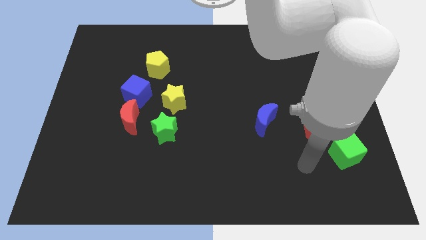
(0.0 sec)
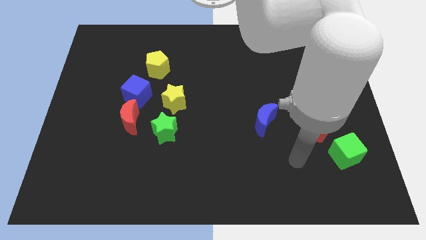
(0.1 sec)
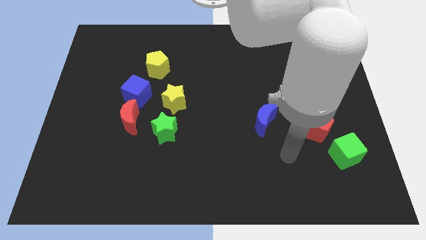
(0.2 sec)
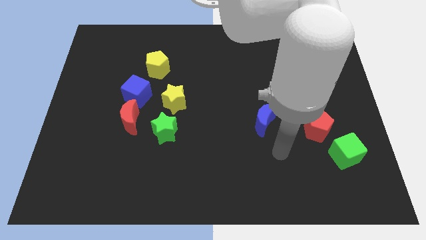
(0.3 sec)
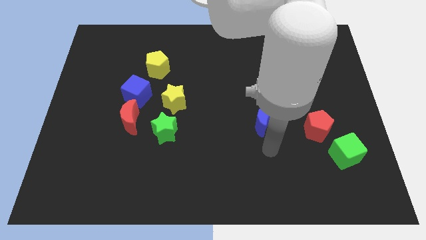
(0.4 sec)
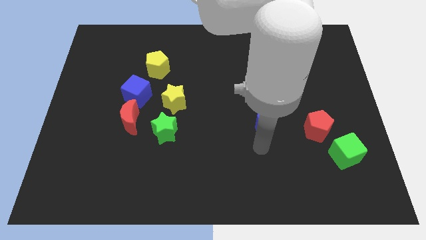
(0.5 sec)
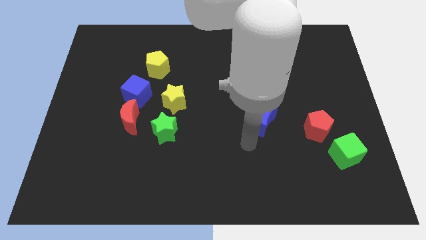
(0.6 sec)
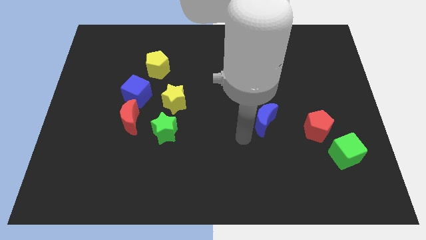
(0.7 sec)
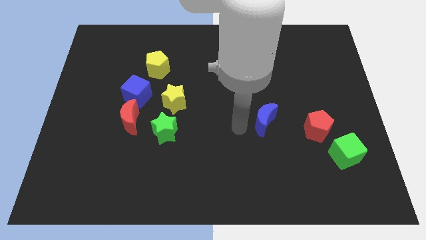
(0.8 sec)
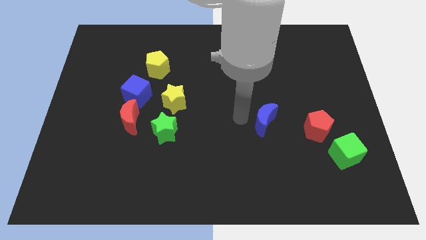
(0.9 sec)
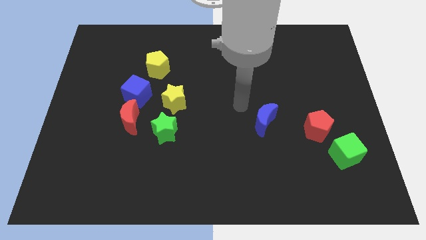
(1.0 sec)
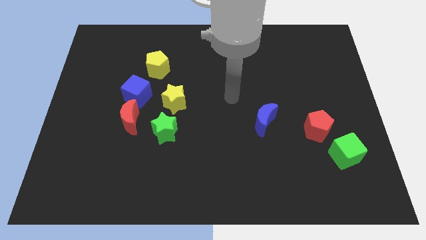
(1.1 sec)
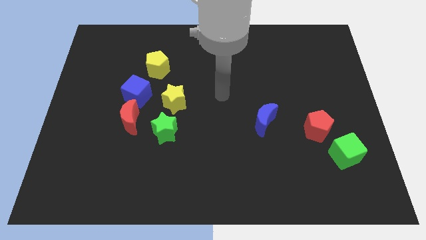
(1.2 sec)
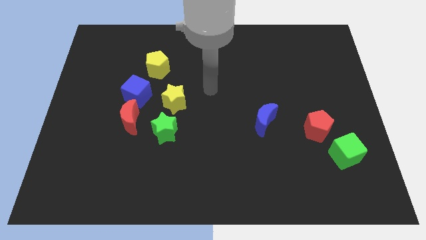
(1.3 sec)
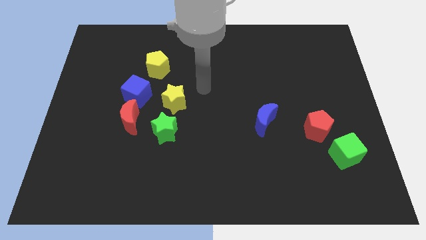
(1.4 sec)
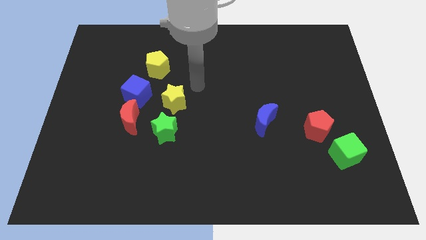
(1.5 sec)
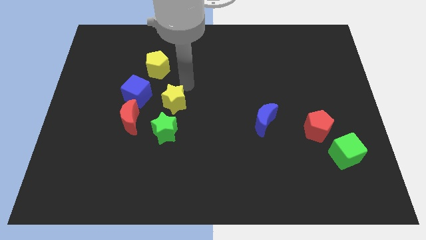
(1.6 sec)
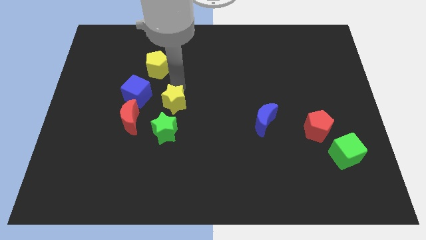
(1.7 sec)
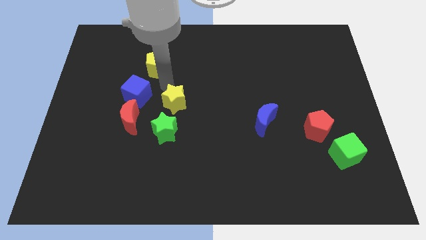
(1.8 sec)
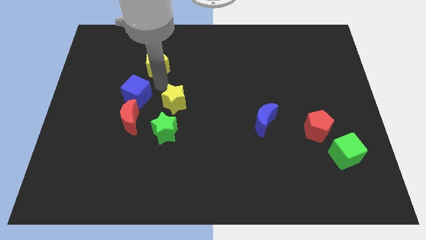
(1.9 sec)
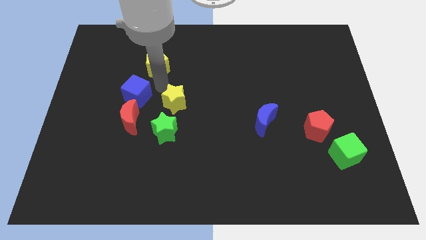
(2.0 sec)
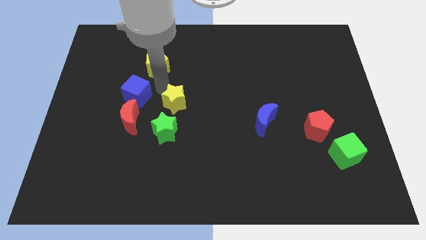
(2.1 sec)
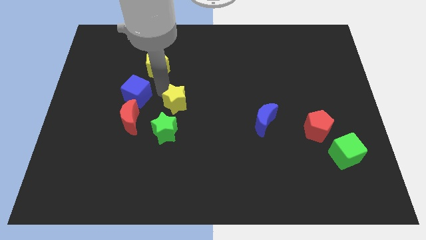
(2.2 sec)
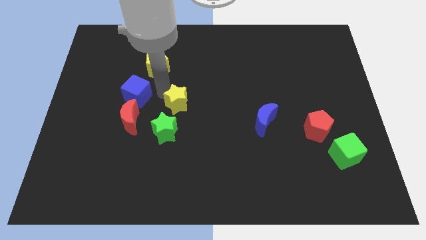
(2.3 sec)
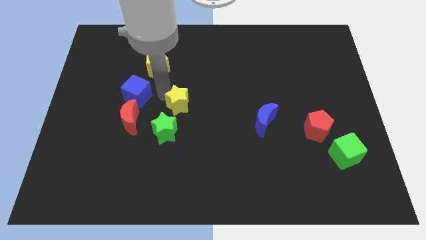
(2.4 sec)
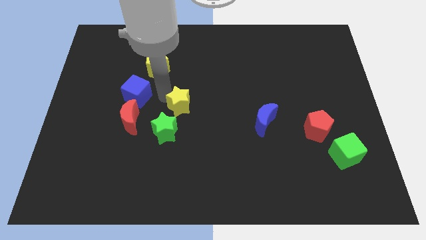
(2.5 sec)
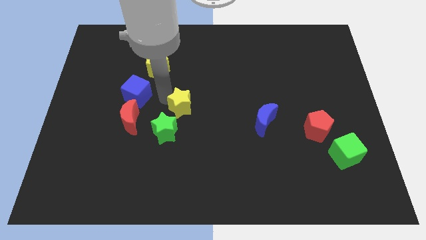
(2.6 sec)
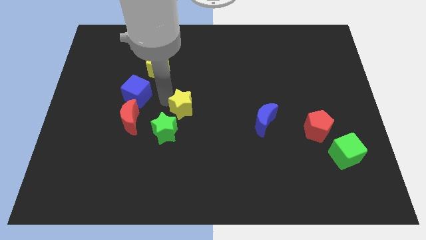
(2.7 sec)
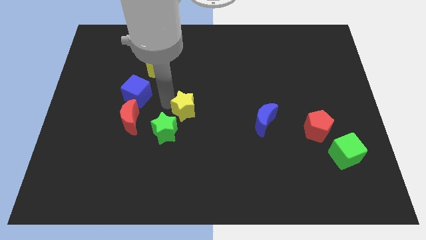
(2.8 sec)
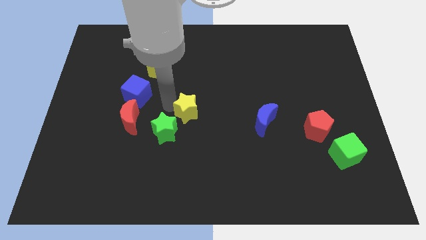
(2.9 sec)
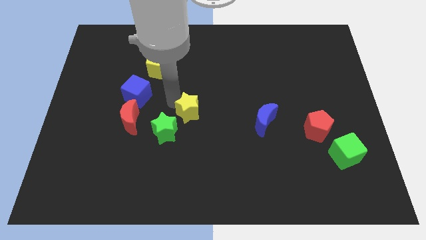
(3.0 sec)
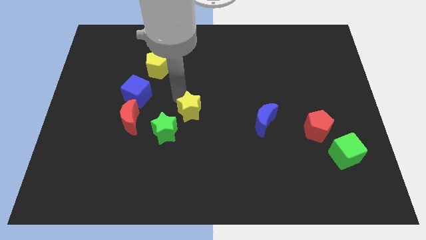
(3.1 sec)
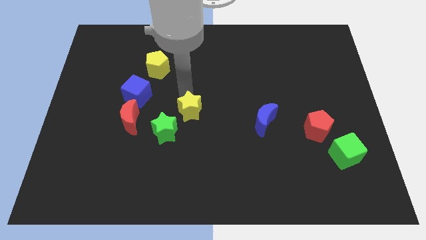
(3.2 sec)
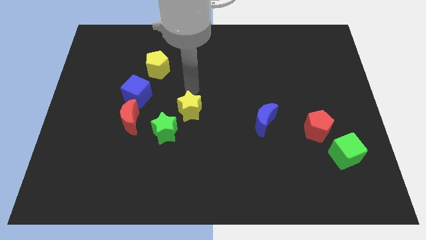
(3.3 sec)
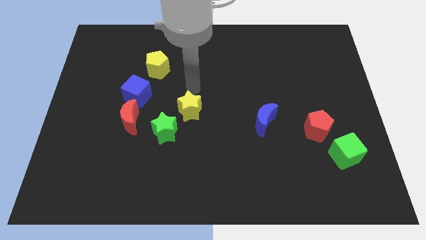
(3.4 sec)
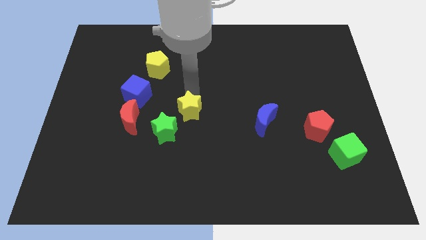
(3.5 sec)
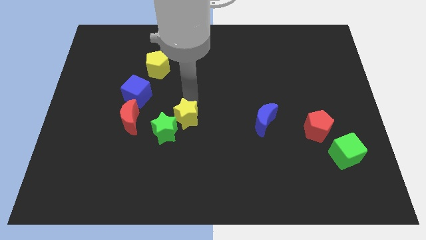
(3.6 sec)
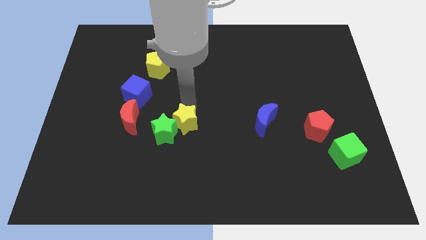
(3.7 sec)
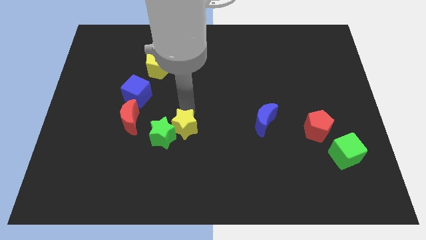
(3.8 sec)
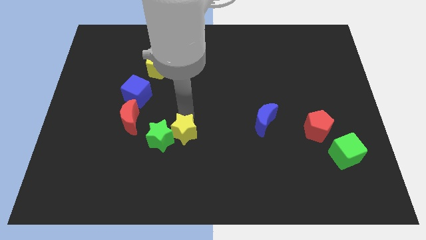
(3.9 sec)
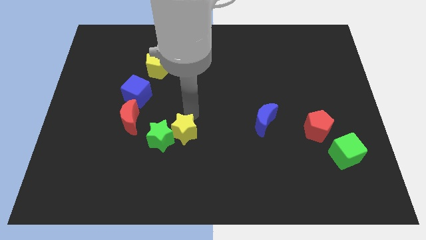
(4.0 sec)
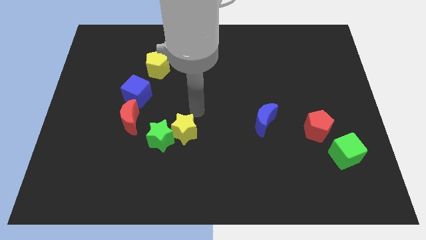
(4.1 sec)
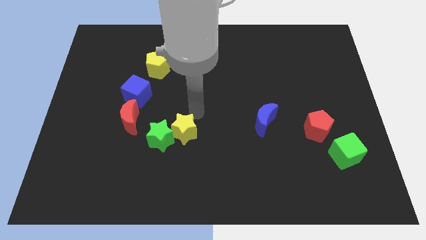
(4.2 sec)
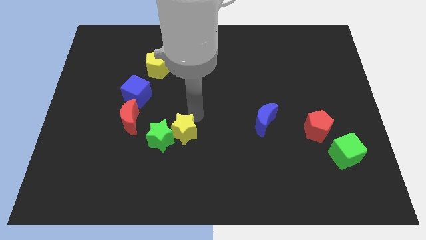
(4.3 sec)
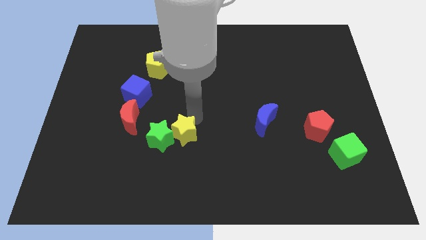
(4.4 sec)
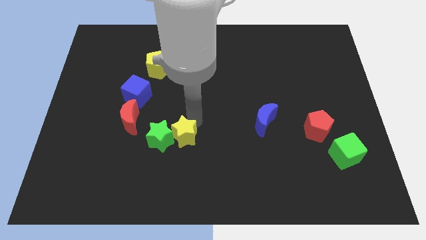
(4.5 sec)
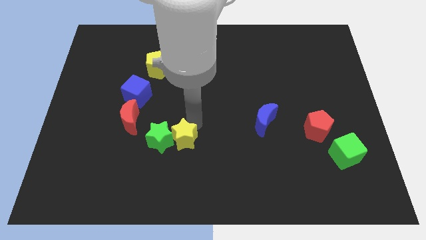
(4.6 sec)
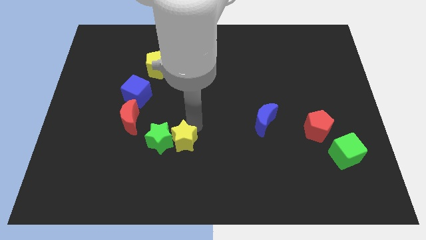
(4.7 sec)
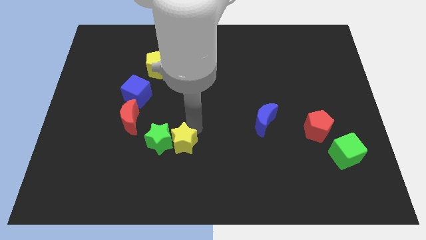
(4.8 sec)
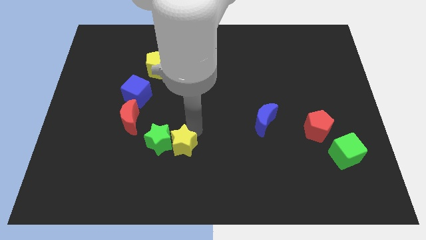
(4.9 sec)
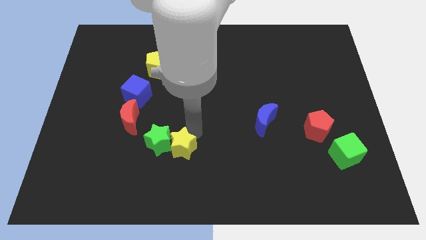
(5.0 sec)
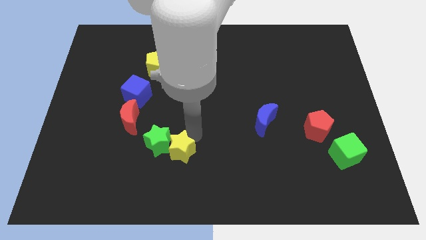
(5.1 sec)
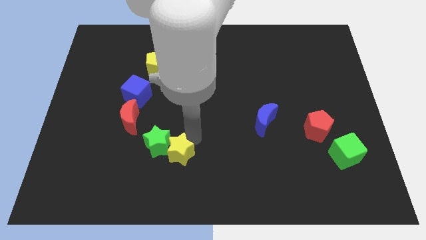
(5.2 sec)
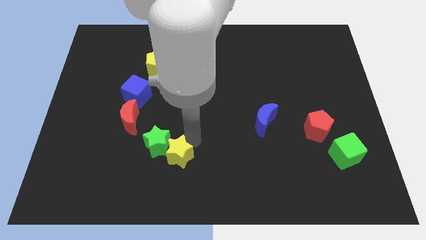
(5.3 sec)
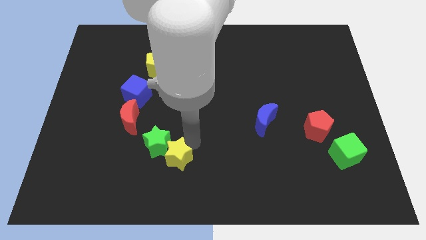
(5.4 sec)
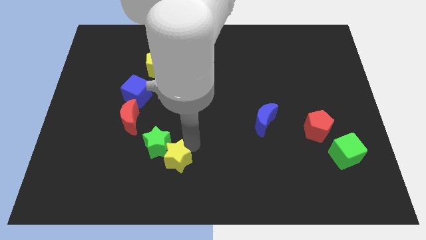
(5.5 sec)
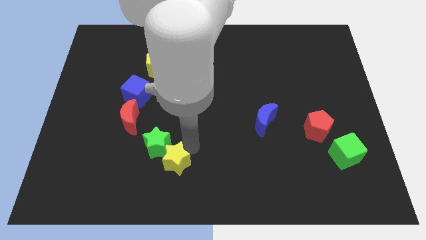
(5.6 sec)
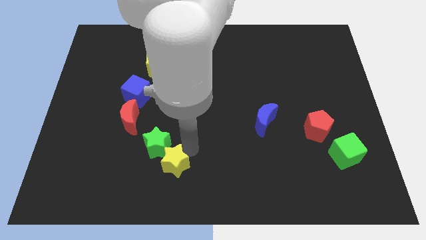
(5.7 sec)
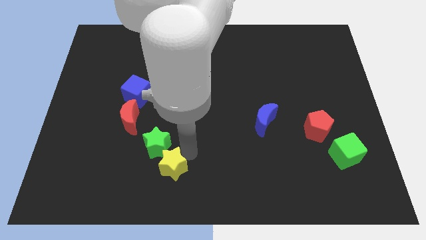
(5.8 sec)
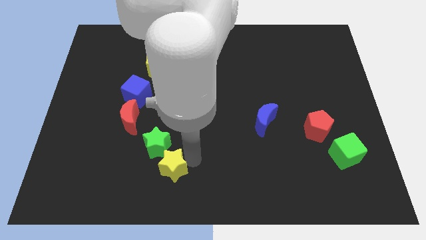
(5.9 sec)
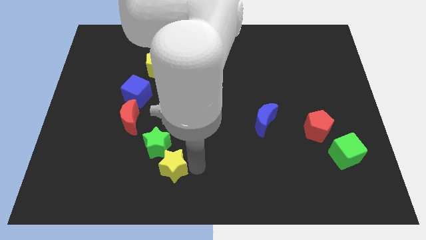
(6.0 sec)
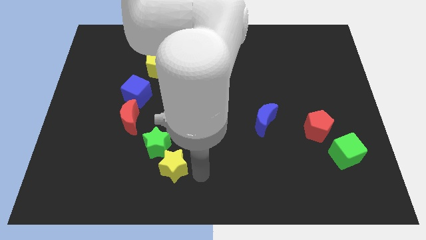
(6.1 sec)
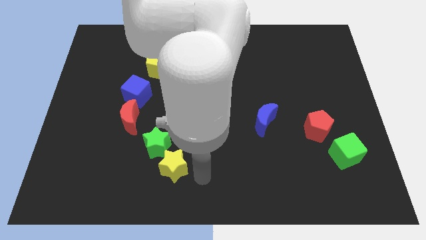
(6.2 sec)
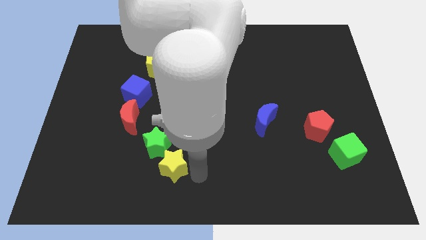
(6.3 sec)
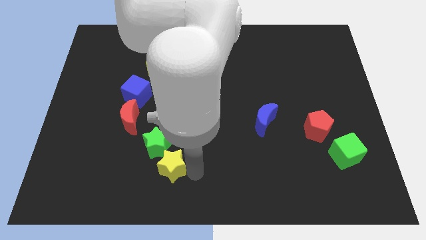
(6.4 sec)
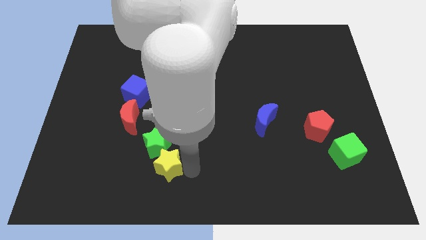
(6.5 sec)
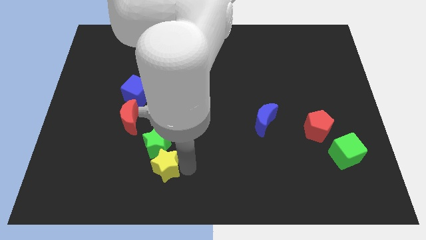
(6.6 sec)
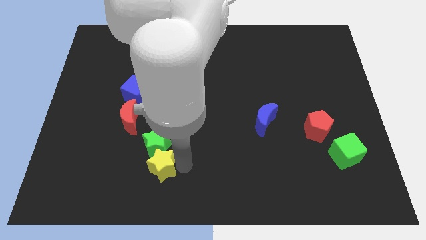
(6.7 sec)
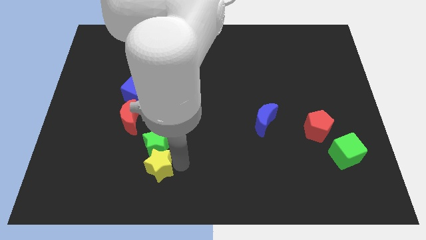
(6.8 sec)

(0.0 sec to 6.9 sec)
push the yellow star a little down and left diagonally

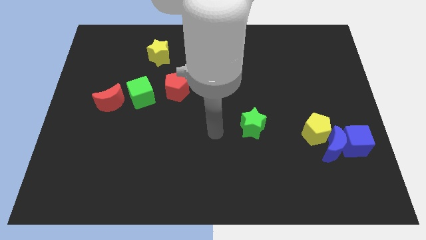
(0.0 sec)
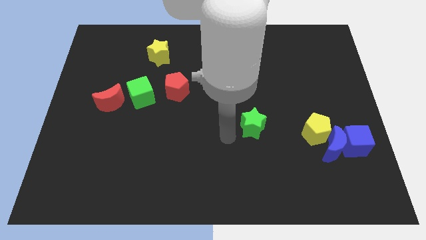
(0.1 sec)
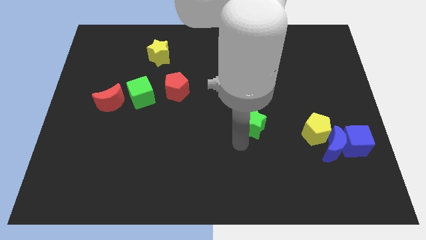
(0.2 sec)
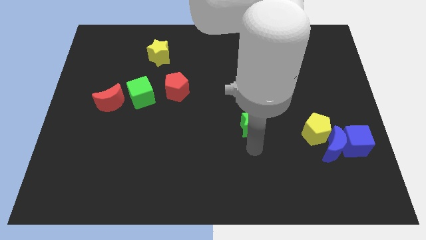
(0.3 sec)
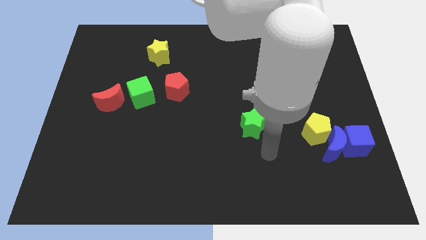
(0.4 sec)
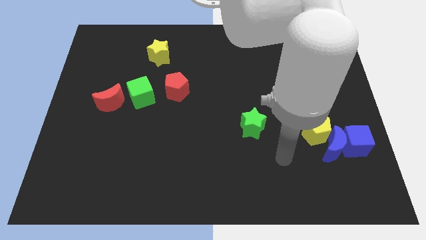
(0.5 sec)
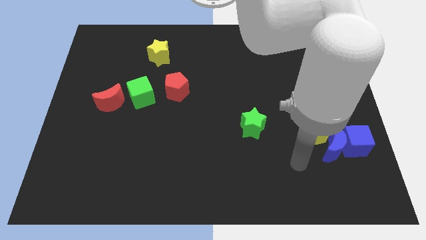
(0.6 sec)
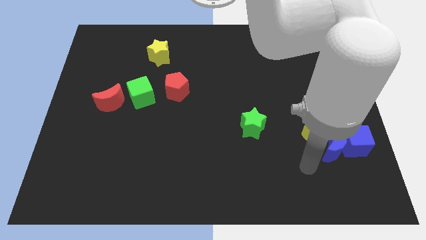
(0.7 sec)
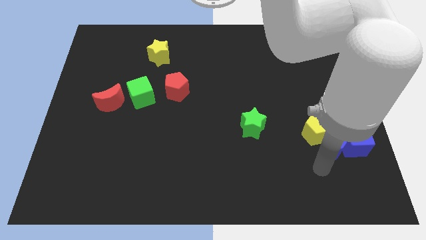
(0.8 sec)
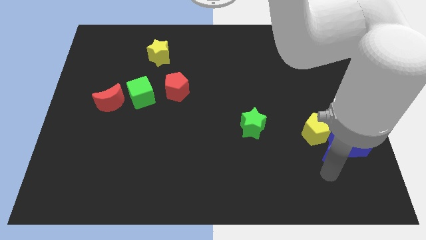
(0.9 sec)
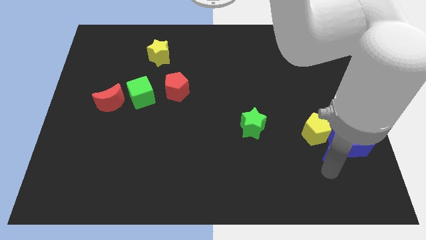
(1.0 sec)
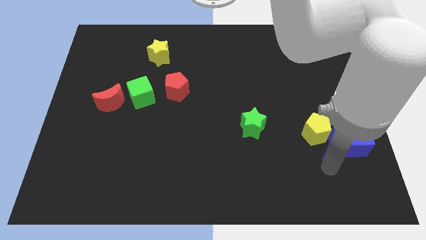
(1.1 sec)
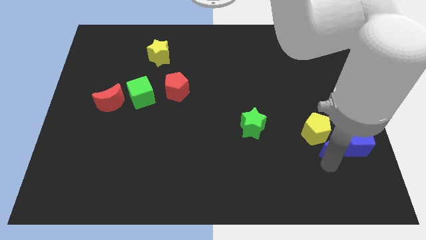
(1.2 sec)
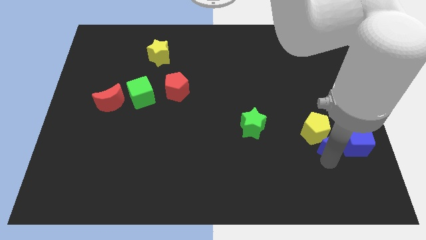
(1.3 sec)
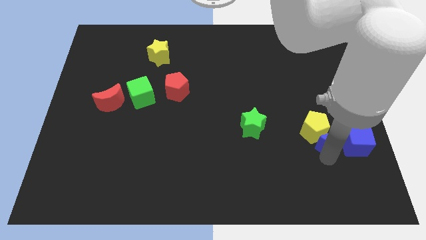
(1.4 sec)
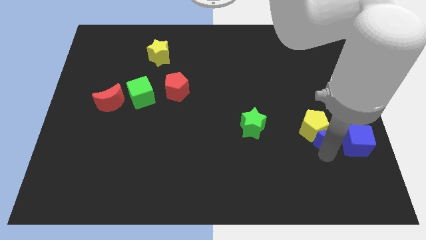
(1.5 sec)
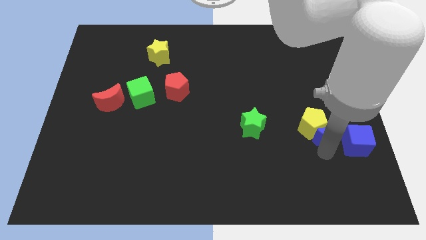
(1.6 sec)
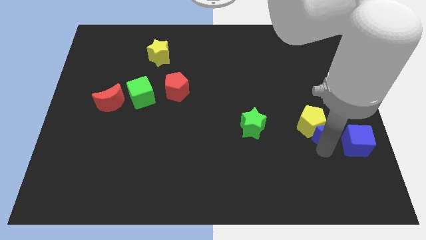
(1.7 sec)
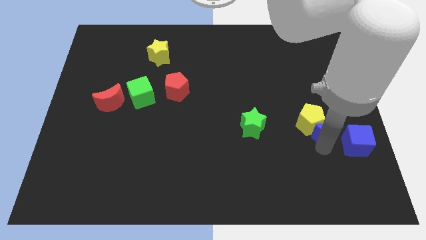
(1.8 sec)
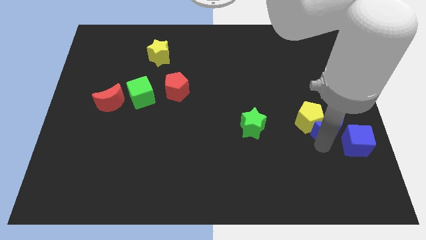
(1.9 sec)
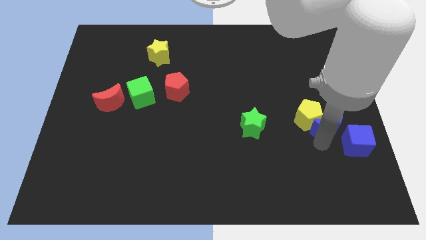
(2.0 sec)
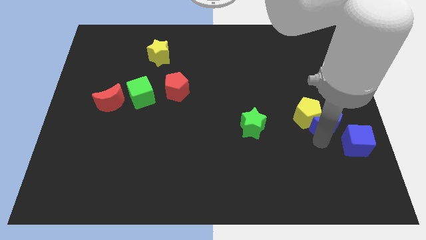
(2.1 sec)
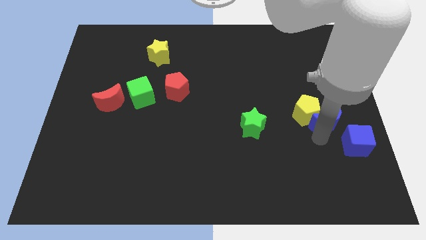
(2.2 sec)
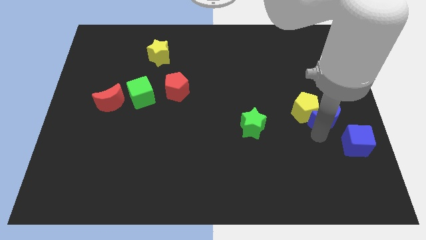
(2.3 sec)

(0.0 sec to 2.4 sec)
slide the blue moon upwards somewhat
